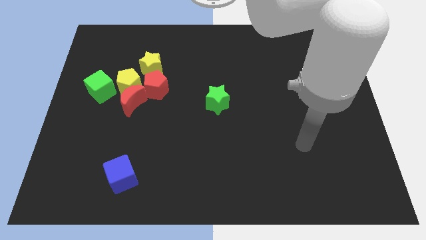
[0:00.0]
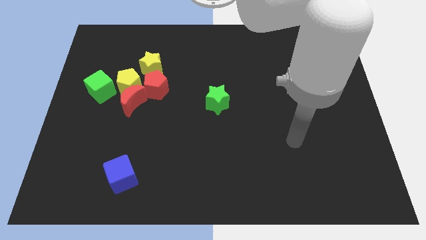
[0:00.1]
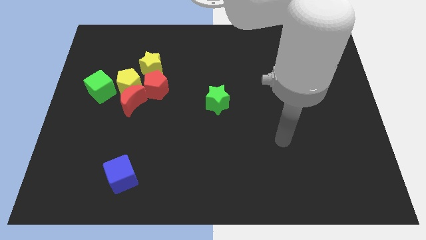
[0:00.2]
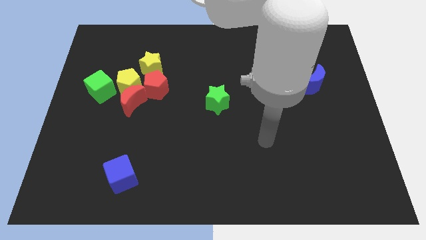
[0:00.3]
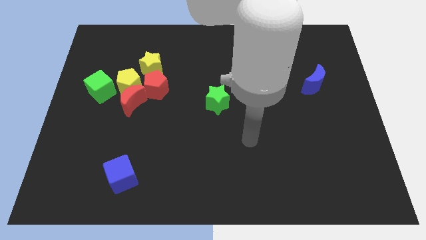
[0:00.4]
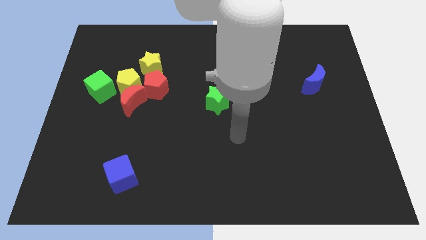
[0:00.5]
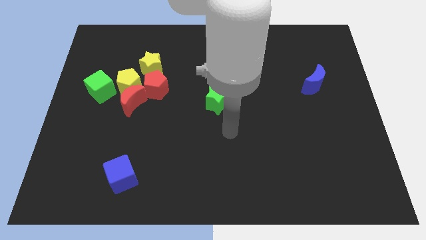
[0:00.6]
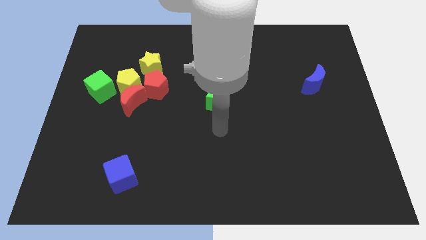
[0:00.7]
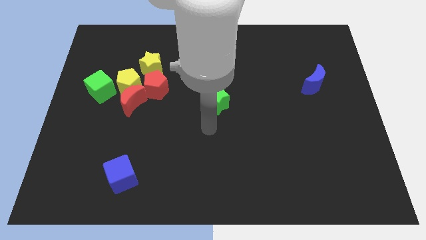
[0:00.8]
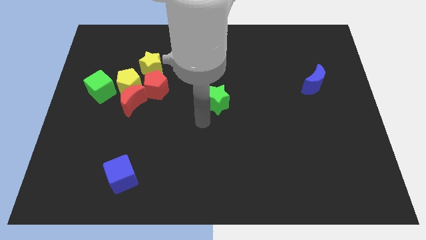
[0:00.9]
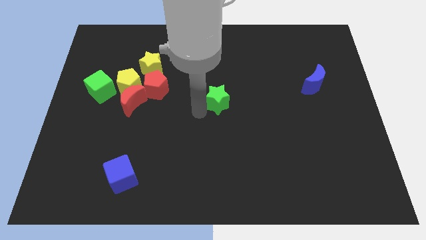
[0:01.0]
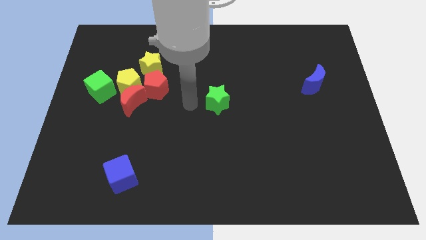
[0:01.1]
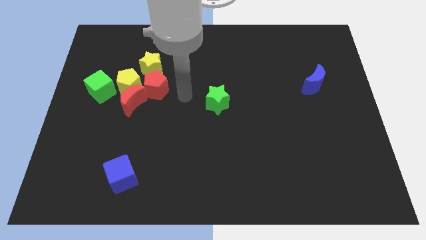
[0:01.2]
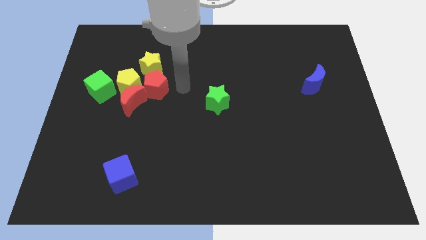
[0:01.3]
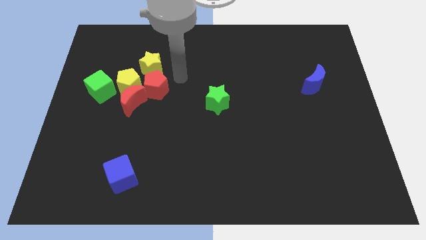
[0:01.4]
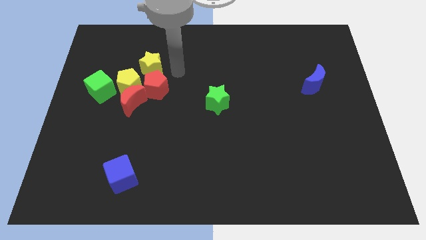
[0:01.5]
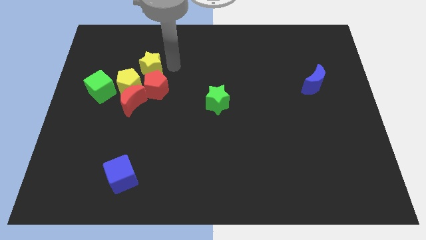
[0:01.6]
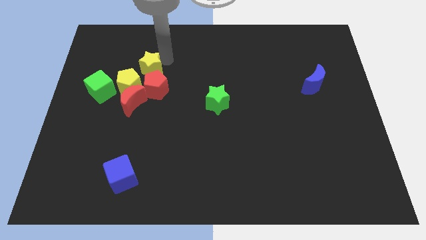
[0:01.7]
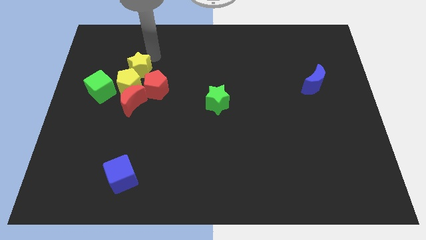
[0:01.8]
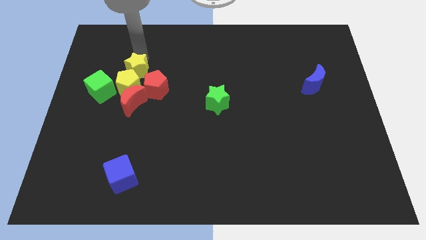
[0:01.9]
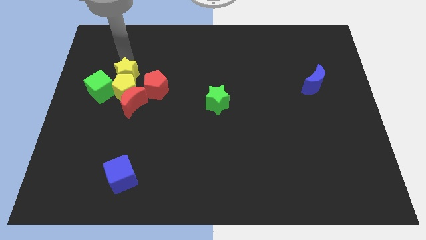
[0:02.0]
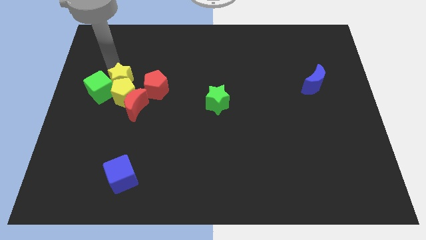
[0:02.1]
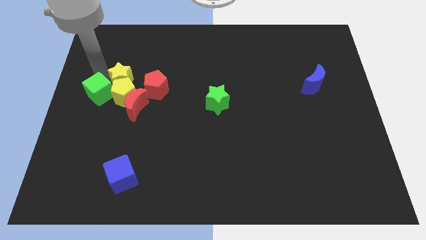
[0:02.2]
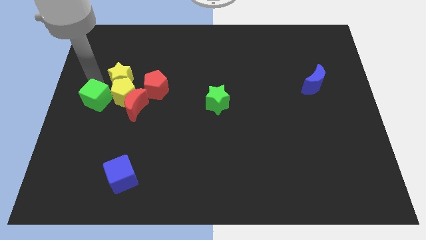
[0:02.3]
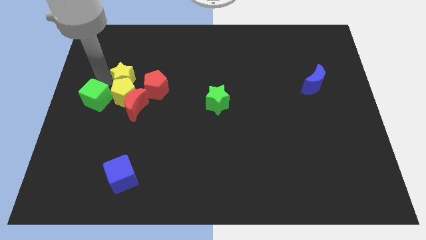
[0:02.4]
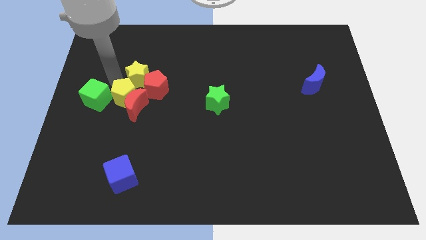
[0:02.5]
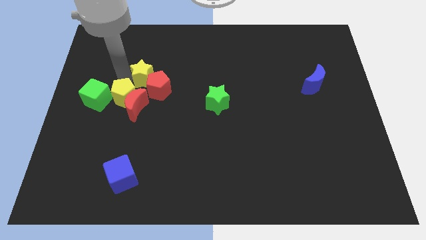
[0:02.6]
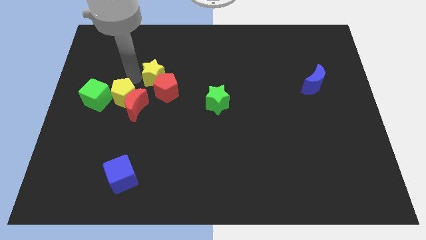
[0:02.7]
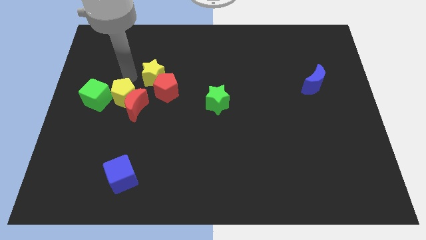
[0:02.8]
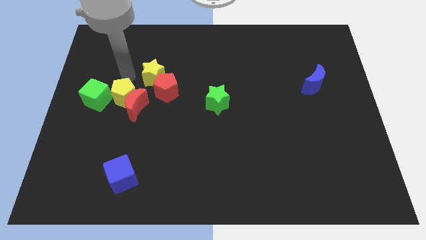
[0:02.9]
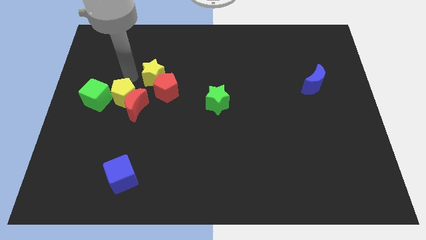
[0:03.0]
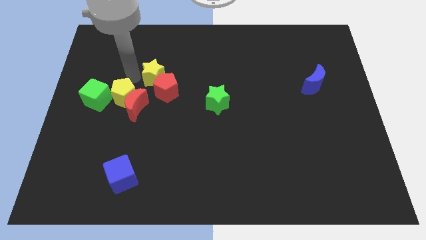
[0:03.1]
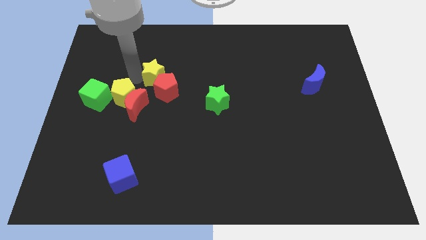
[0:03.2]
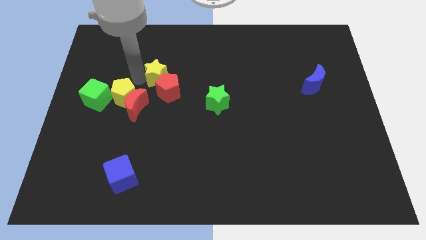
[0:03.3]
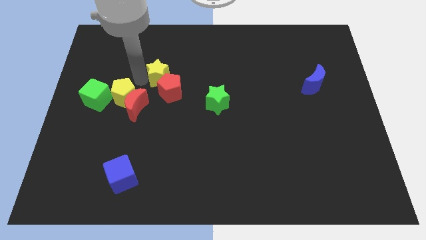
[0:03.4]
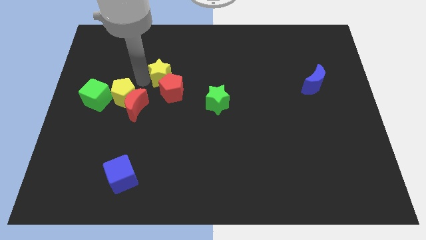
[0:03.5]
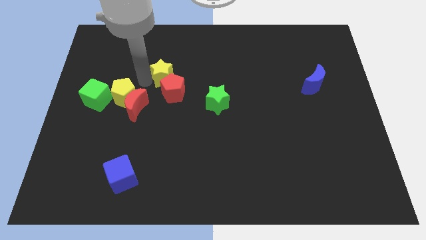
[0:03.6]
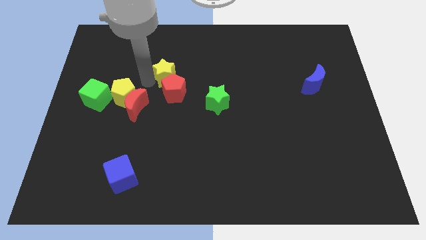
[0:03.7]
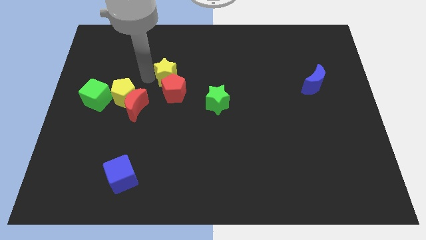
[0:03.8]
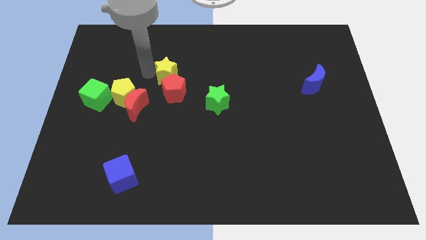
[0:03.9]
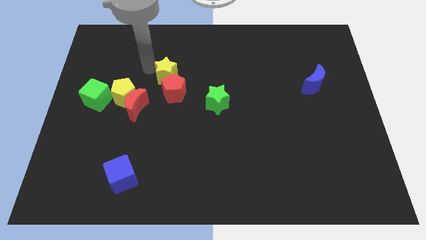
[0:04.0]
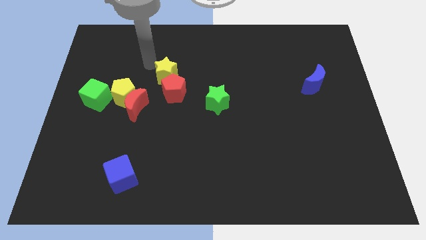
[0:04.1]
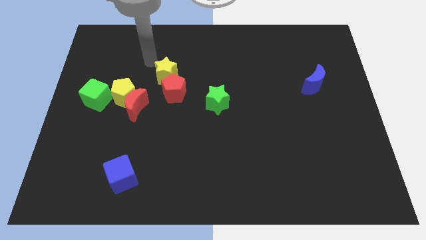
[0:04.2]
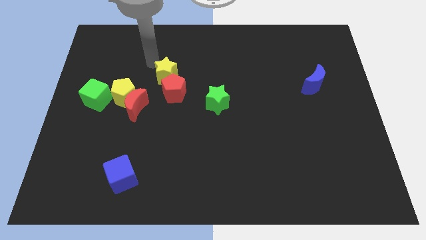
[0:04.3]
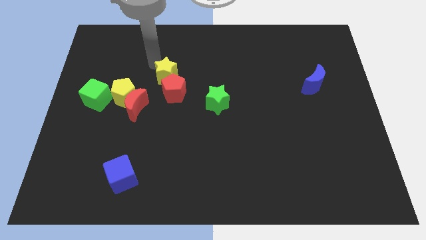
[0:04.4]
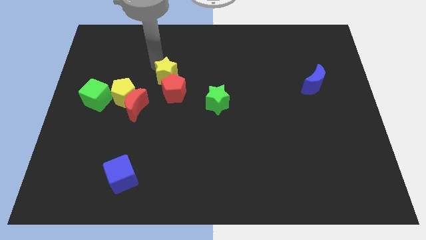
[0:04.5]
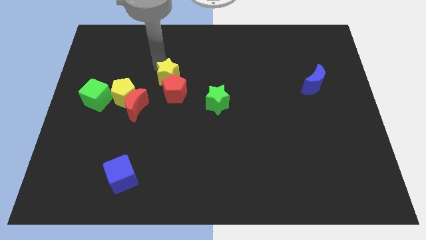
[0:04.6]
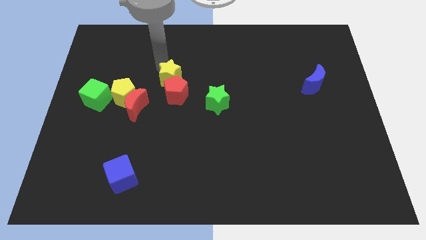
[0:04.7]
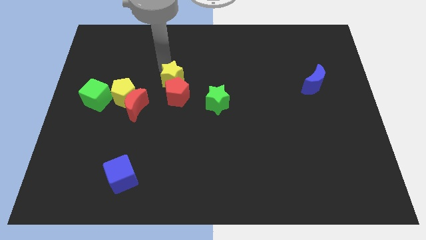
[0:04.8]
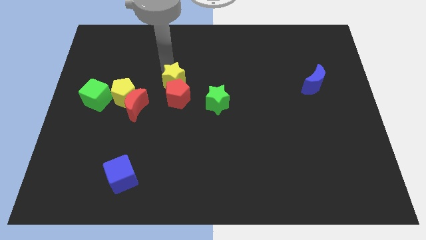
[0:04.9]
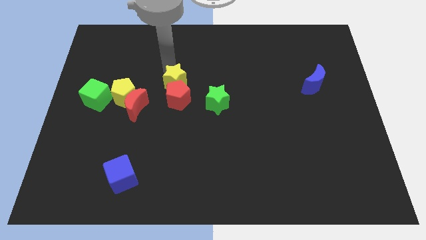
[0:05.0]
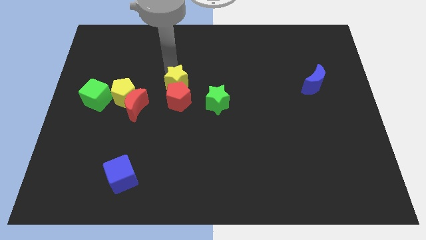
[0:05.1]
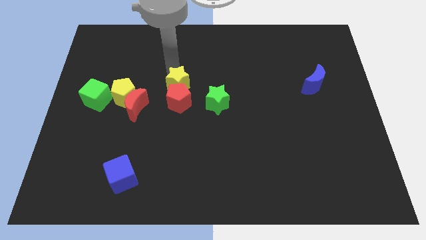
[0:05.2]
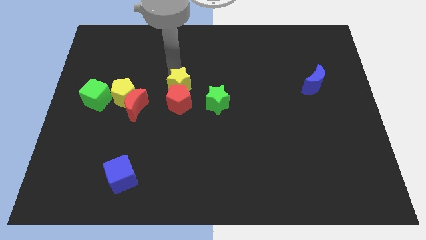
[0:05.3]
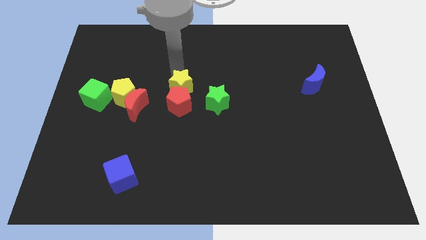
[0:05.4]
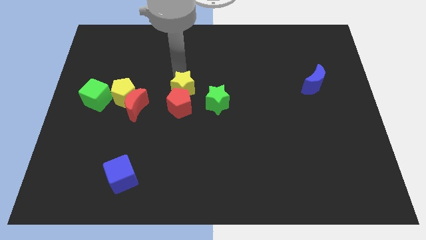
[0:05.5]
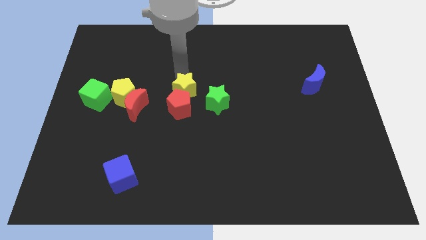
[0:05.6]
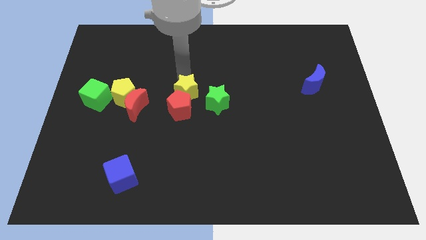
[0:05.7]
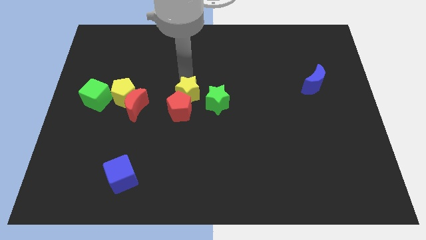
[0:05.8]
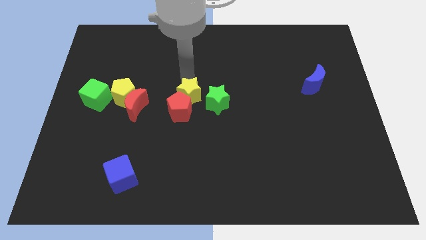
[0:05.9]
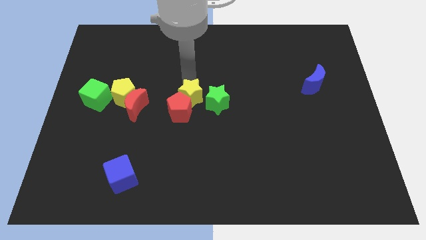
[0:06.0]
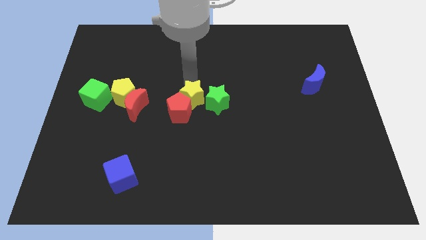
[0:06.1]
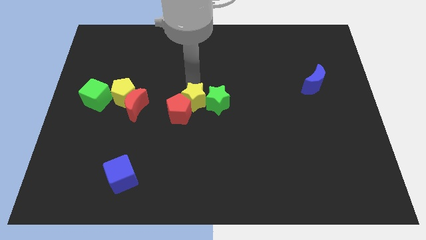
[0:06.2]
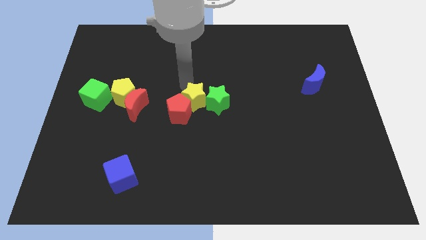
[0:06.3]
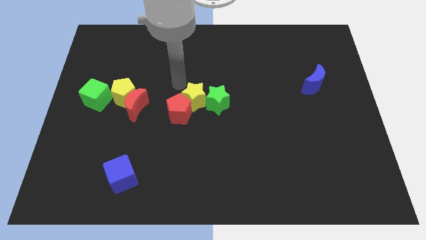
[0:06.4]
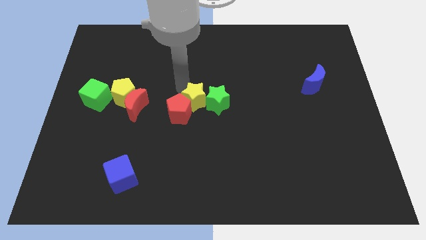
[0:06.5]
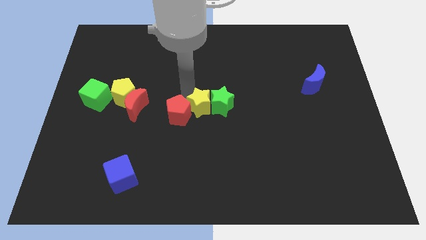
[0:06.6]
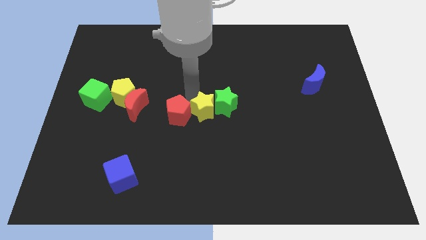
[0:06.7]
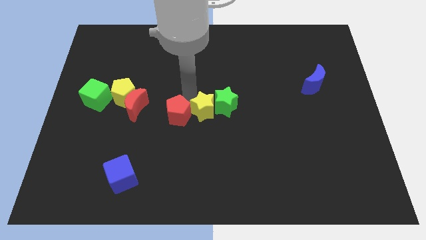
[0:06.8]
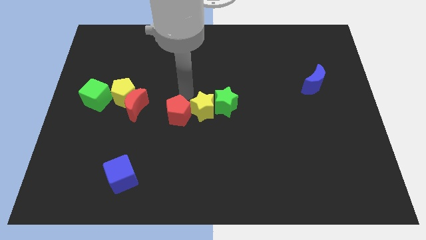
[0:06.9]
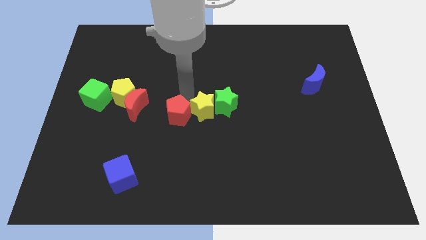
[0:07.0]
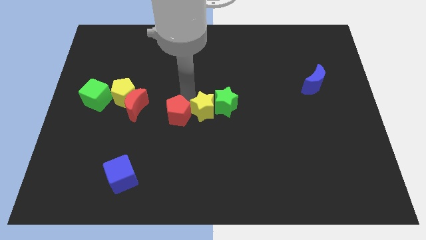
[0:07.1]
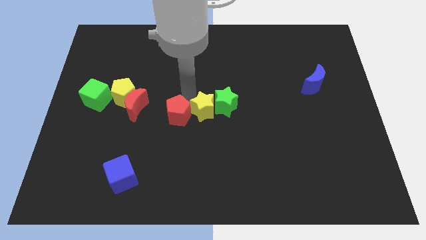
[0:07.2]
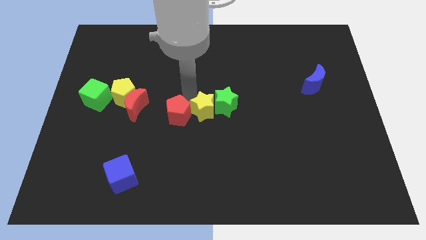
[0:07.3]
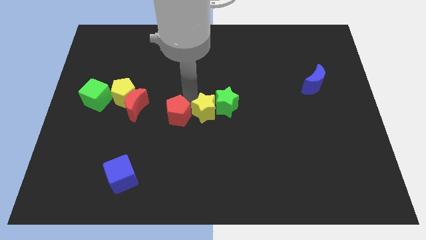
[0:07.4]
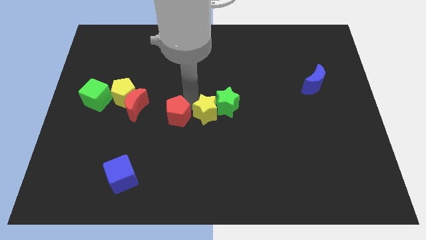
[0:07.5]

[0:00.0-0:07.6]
push the yellow star downwards and right

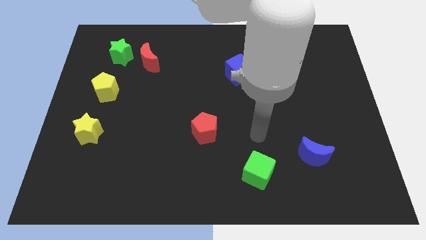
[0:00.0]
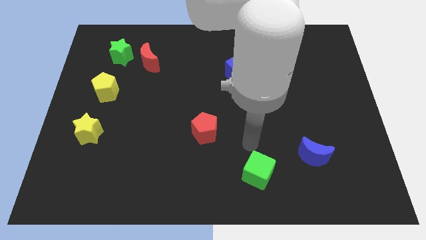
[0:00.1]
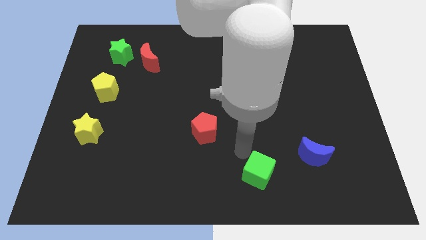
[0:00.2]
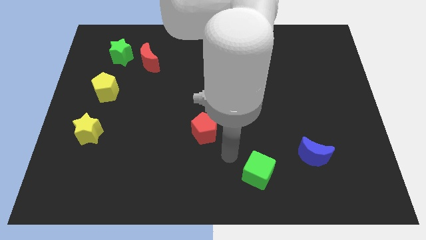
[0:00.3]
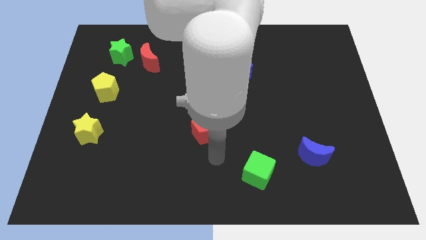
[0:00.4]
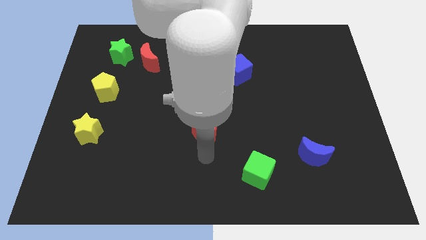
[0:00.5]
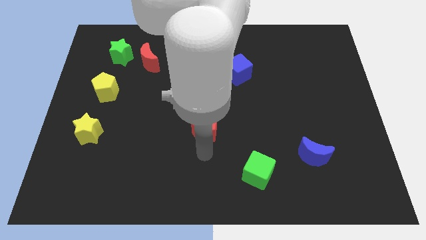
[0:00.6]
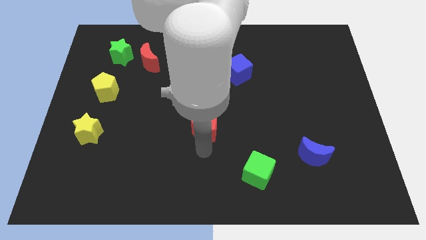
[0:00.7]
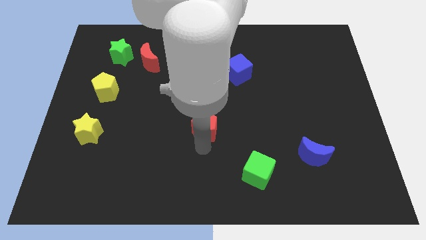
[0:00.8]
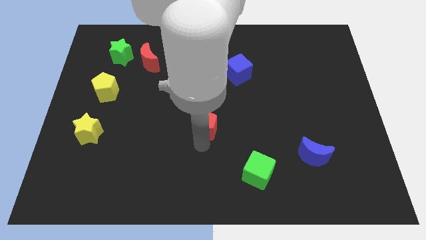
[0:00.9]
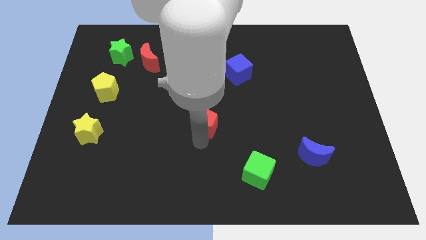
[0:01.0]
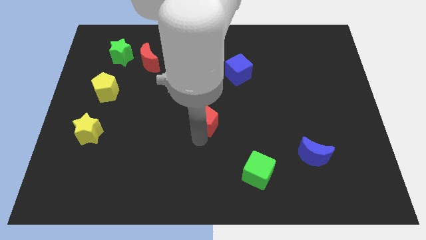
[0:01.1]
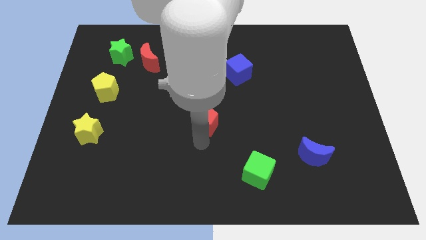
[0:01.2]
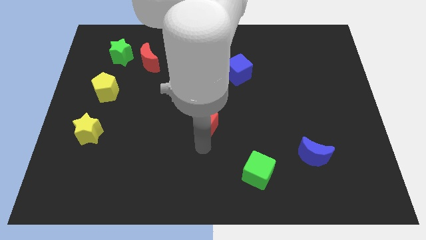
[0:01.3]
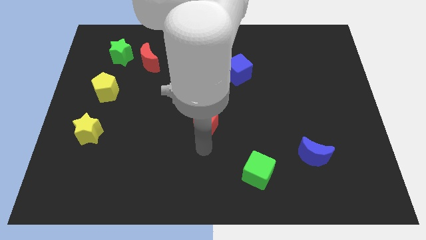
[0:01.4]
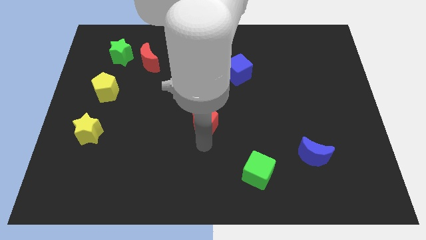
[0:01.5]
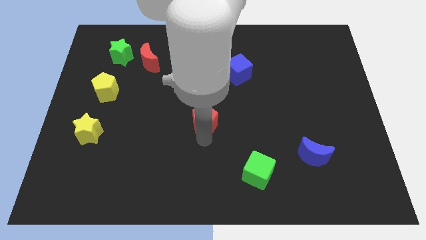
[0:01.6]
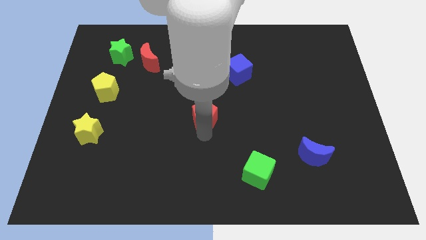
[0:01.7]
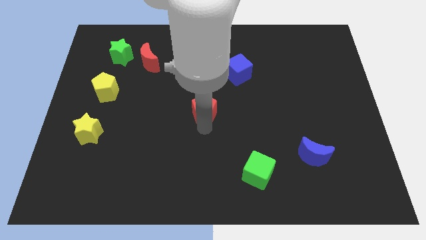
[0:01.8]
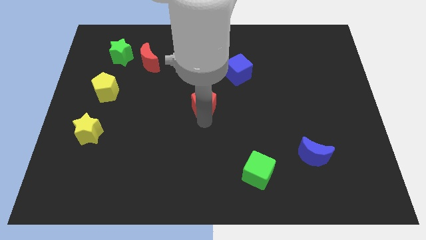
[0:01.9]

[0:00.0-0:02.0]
move the red pentagon upwards somewhat
